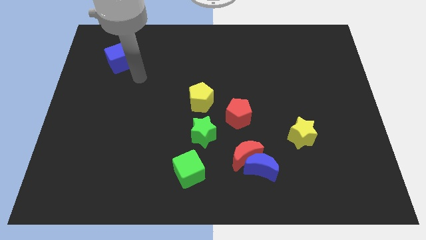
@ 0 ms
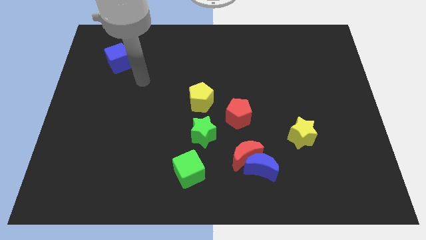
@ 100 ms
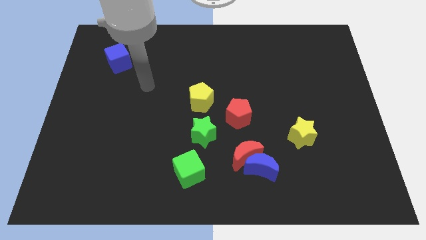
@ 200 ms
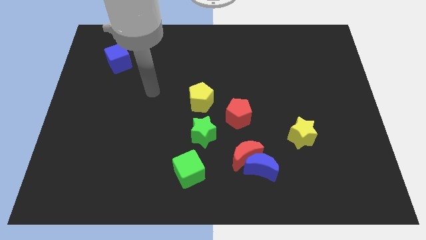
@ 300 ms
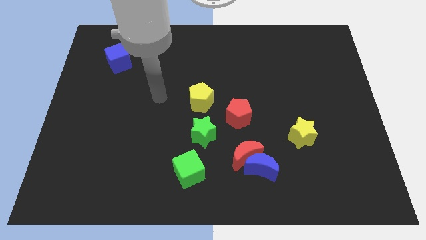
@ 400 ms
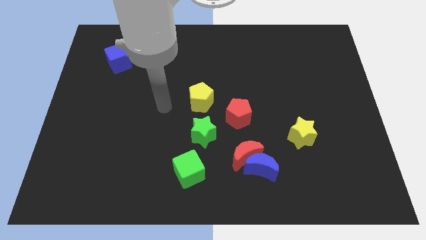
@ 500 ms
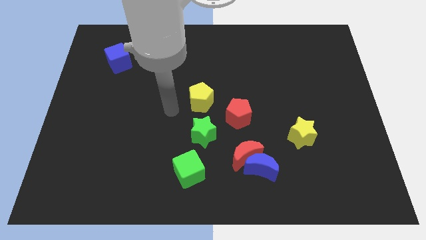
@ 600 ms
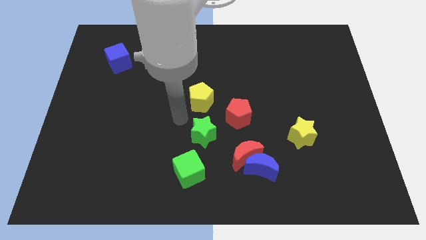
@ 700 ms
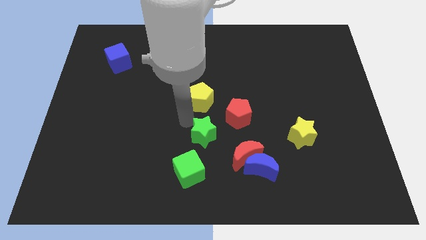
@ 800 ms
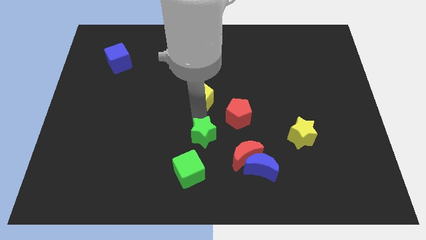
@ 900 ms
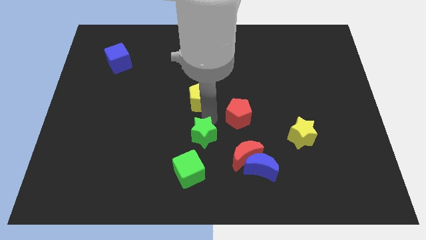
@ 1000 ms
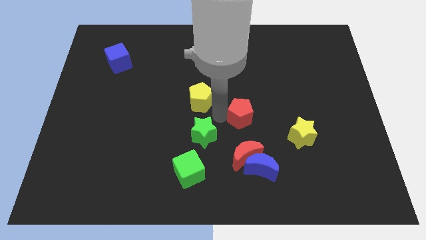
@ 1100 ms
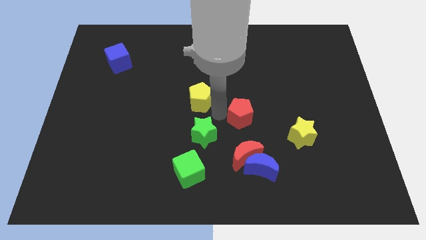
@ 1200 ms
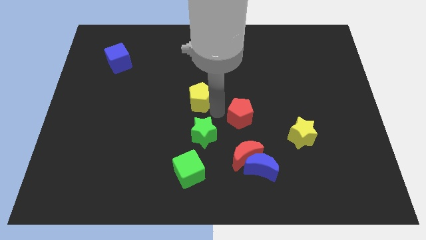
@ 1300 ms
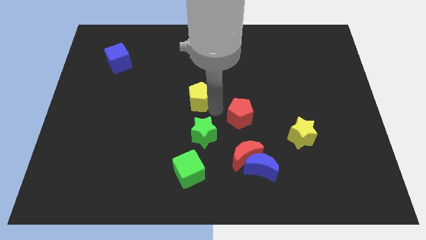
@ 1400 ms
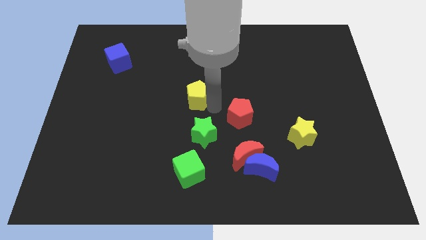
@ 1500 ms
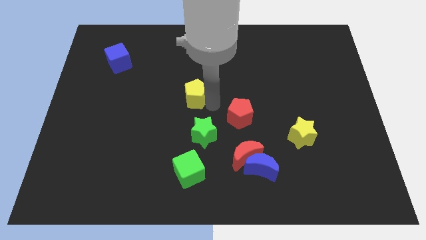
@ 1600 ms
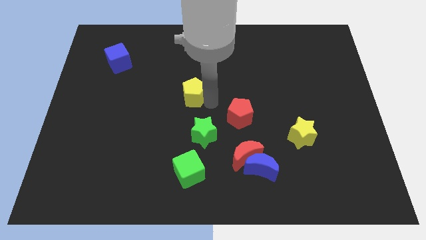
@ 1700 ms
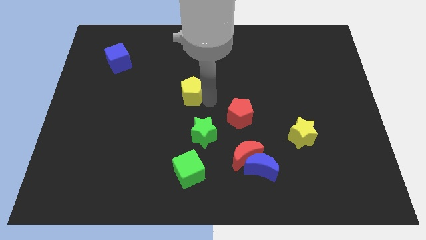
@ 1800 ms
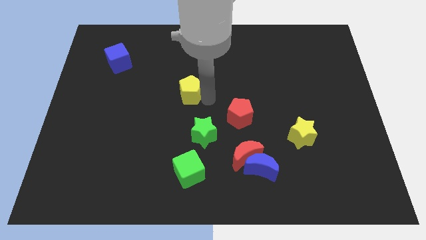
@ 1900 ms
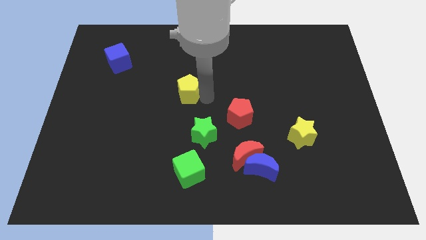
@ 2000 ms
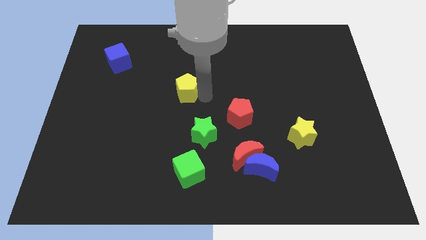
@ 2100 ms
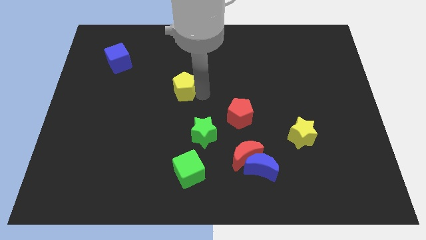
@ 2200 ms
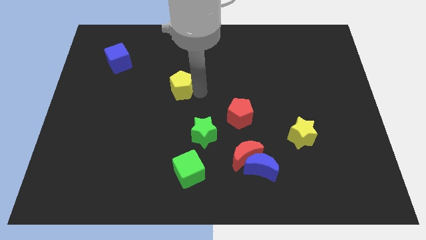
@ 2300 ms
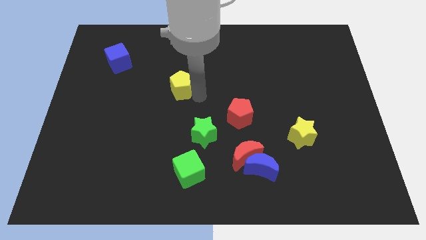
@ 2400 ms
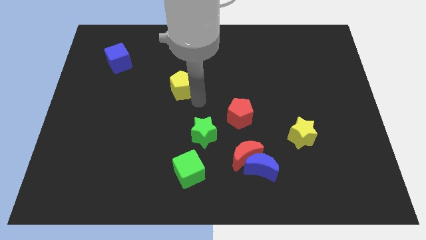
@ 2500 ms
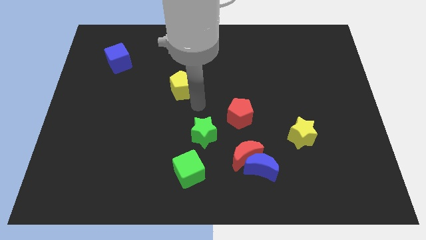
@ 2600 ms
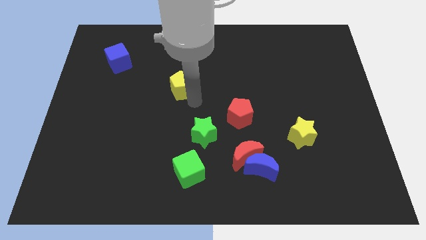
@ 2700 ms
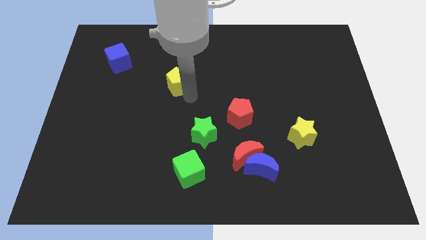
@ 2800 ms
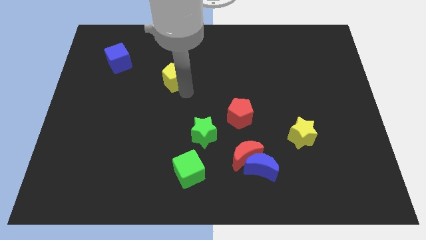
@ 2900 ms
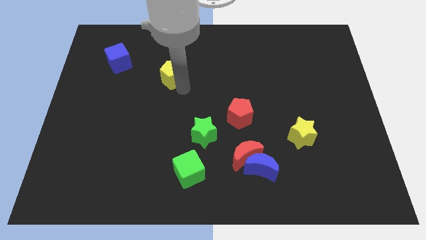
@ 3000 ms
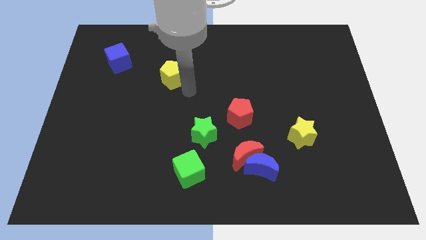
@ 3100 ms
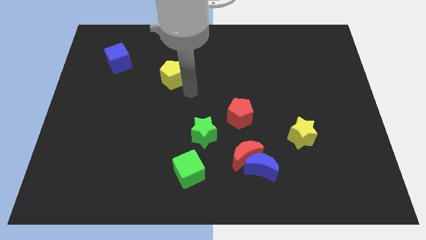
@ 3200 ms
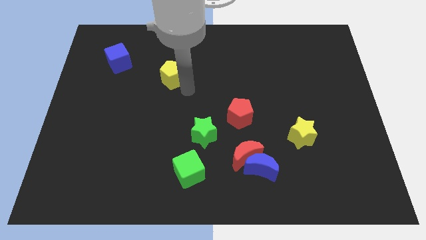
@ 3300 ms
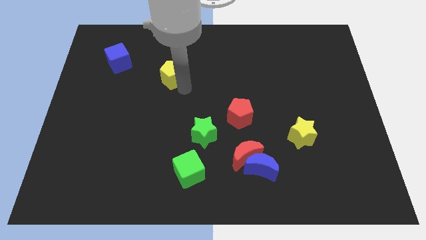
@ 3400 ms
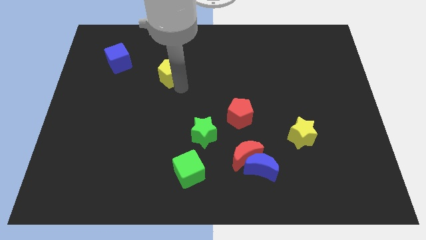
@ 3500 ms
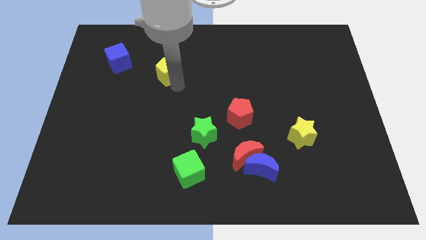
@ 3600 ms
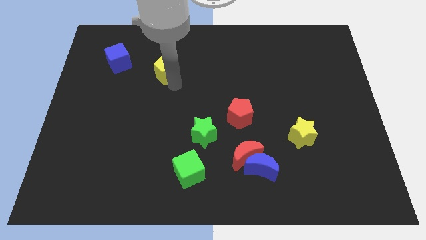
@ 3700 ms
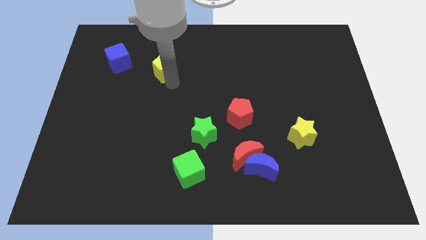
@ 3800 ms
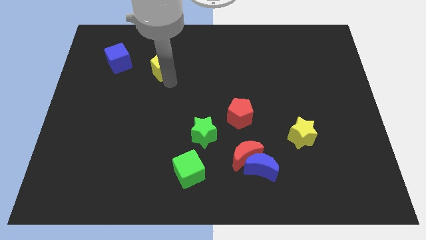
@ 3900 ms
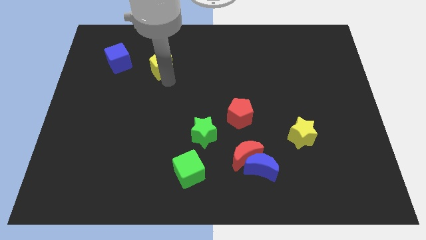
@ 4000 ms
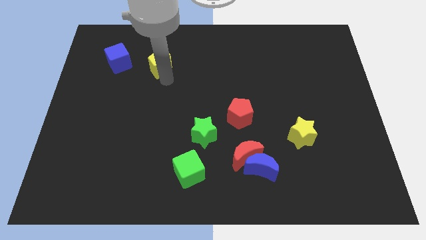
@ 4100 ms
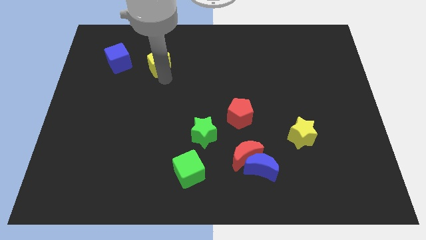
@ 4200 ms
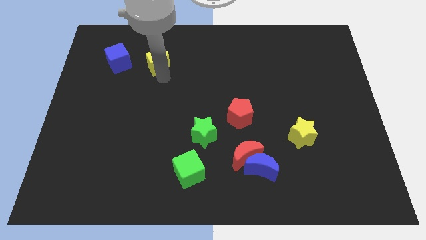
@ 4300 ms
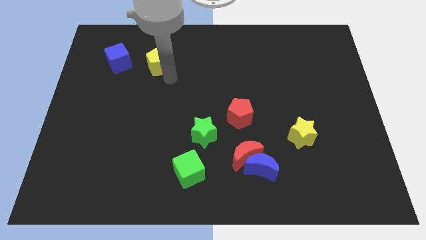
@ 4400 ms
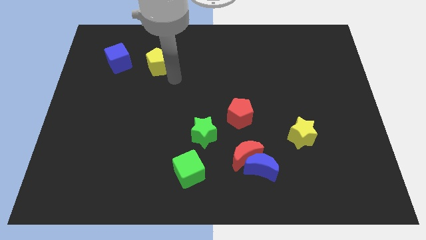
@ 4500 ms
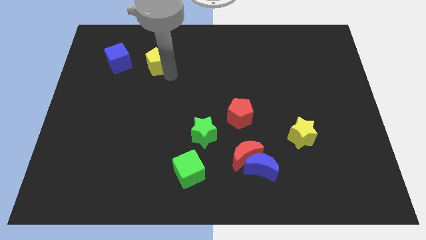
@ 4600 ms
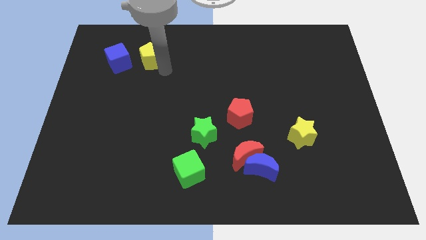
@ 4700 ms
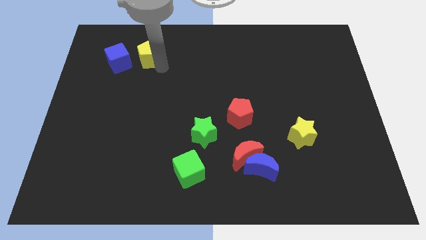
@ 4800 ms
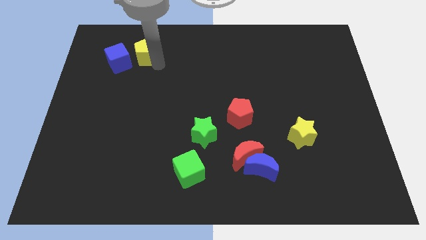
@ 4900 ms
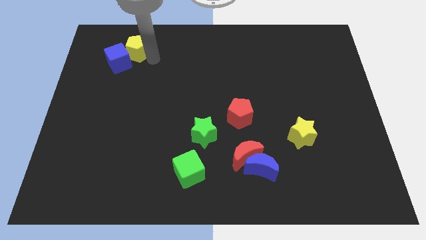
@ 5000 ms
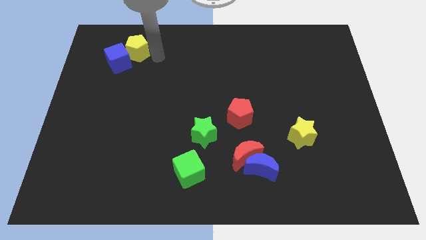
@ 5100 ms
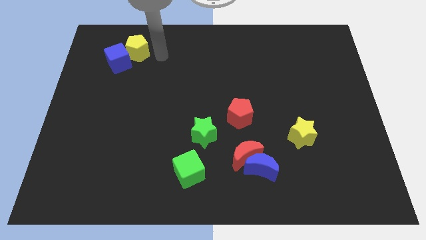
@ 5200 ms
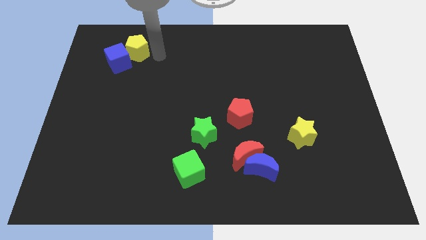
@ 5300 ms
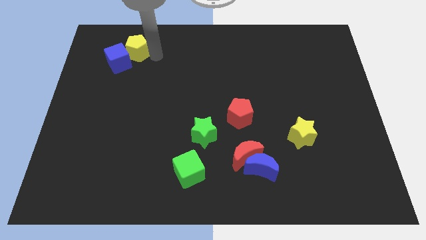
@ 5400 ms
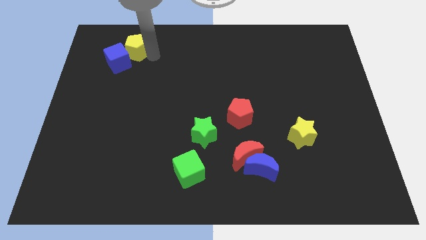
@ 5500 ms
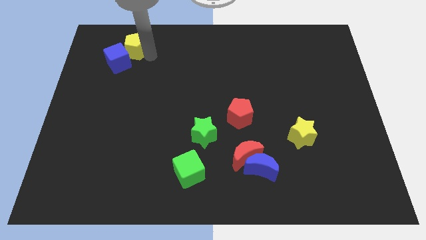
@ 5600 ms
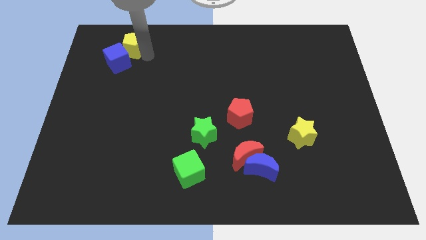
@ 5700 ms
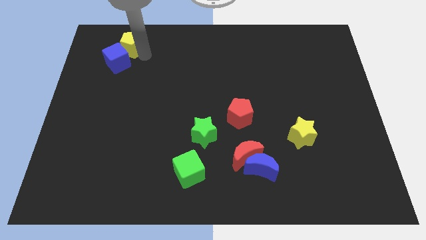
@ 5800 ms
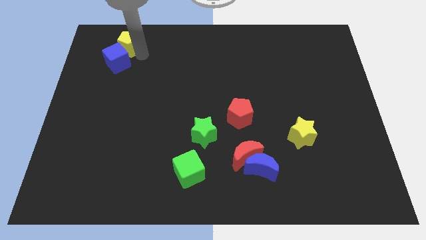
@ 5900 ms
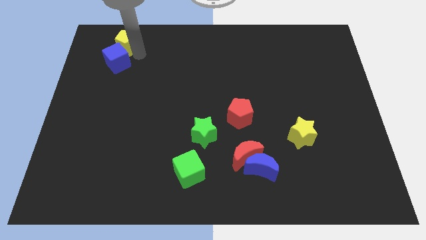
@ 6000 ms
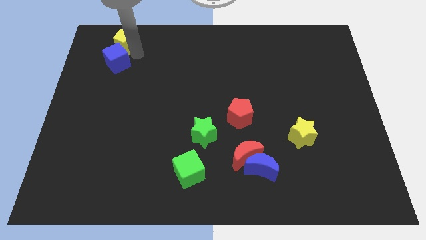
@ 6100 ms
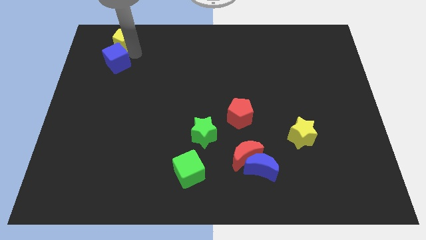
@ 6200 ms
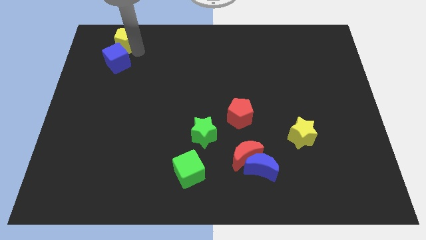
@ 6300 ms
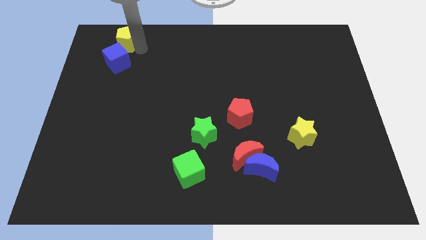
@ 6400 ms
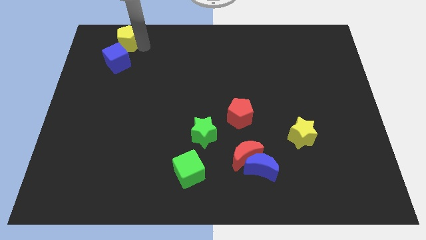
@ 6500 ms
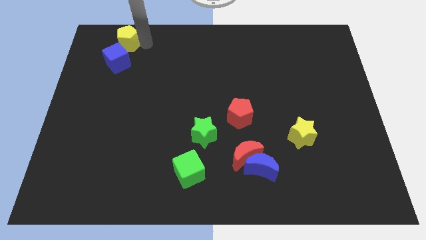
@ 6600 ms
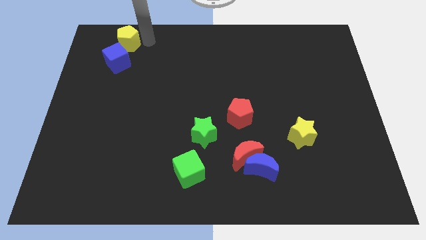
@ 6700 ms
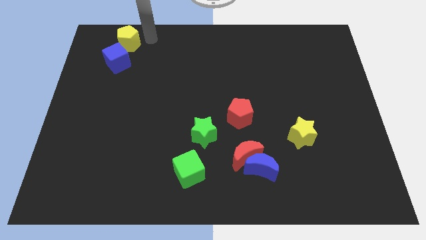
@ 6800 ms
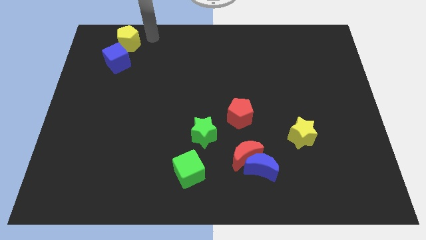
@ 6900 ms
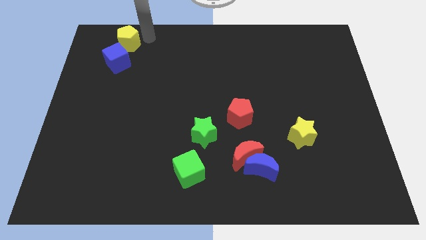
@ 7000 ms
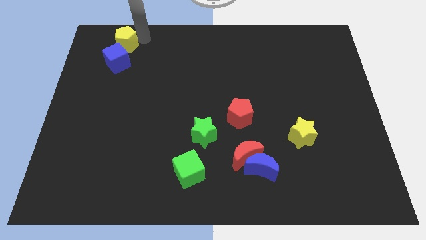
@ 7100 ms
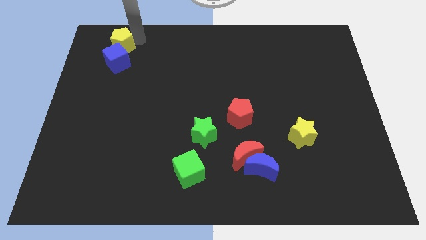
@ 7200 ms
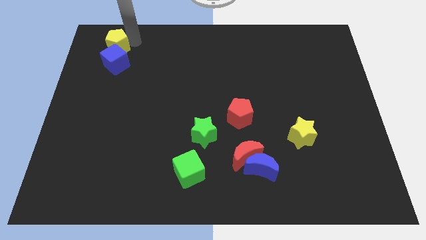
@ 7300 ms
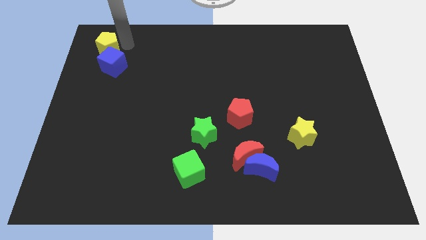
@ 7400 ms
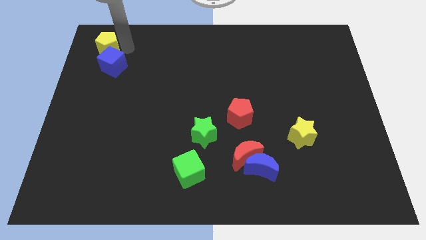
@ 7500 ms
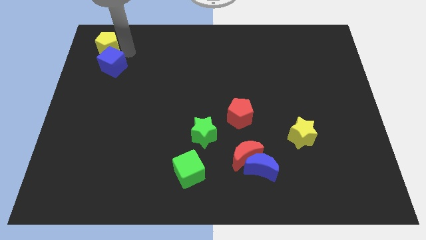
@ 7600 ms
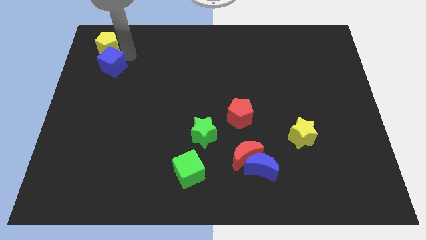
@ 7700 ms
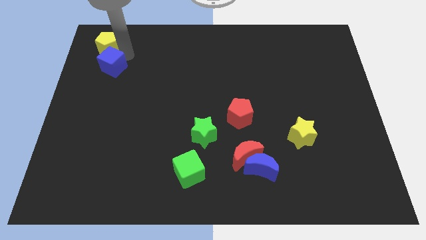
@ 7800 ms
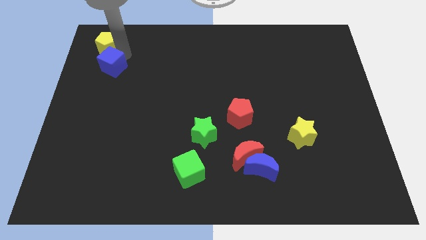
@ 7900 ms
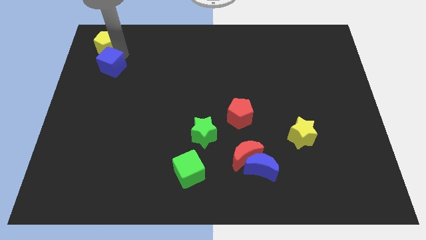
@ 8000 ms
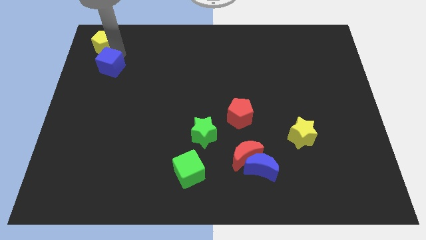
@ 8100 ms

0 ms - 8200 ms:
move the yellow pentagon to the upper left corner
